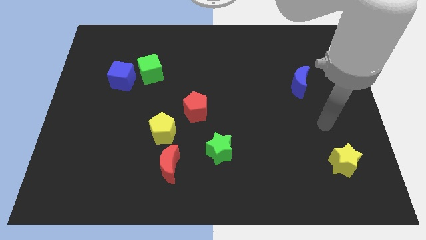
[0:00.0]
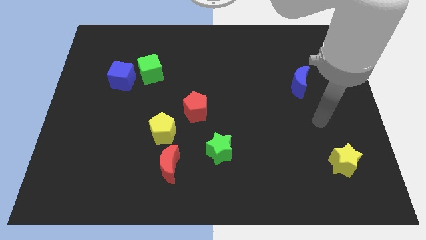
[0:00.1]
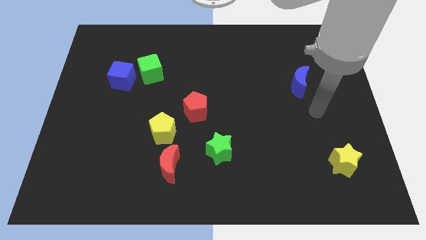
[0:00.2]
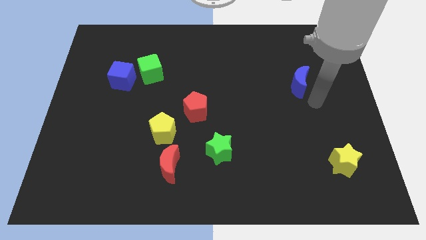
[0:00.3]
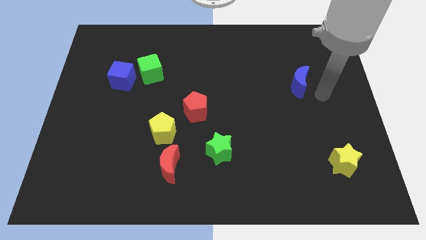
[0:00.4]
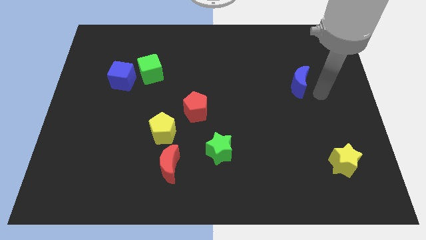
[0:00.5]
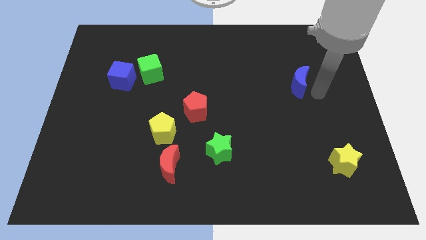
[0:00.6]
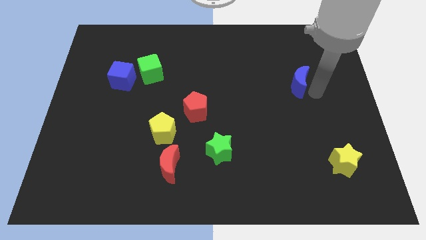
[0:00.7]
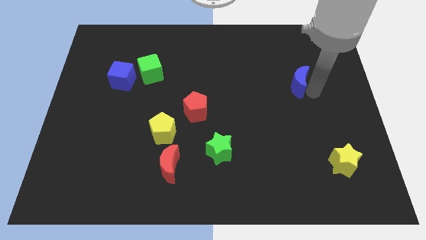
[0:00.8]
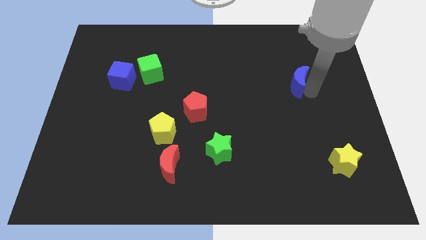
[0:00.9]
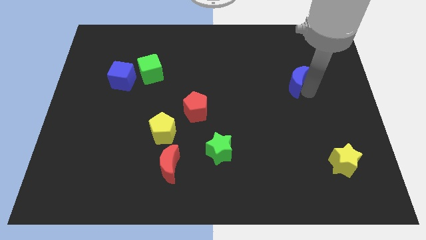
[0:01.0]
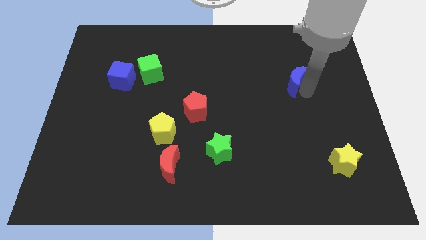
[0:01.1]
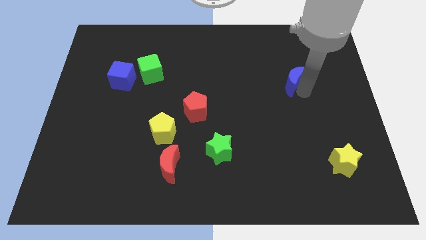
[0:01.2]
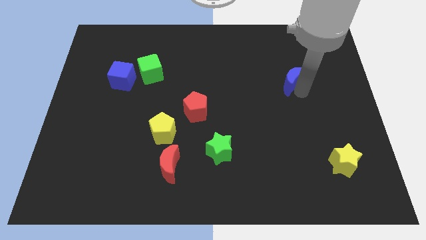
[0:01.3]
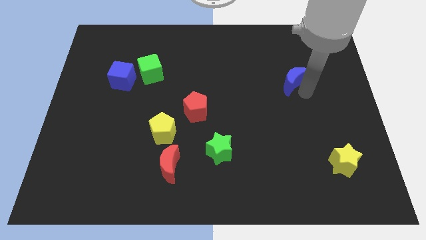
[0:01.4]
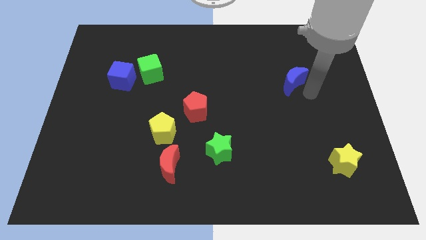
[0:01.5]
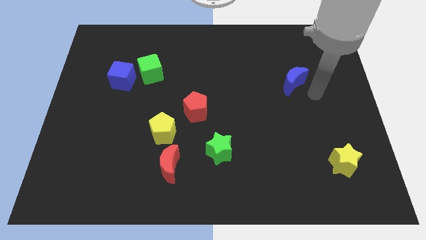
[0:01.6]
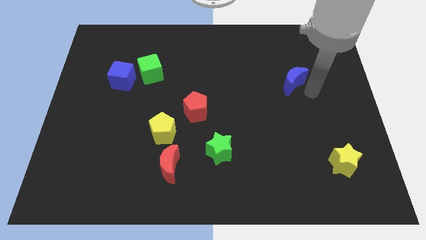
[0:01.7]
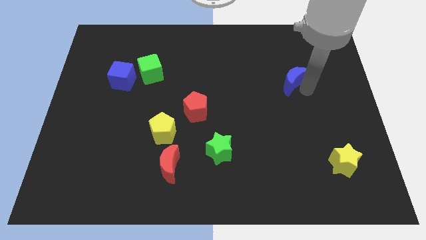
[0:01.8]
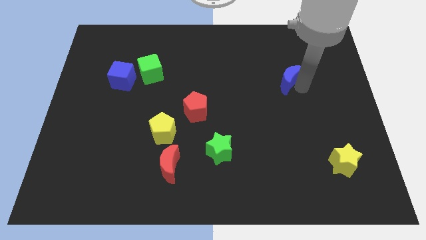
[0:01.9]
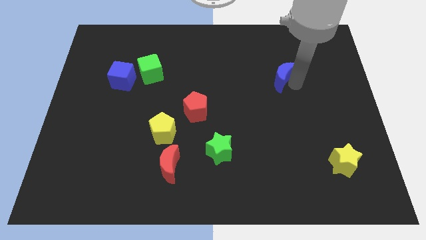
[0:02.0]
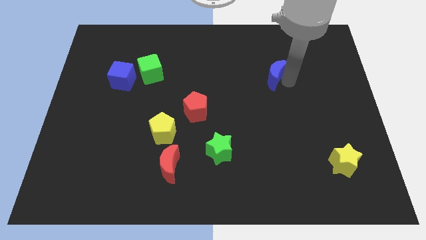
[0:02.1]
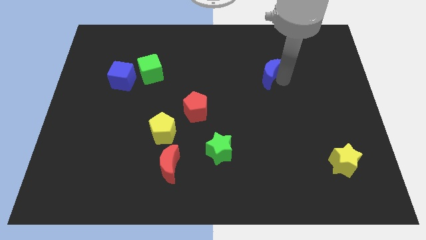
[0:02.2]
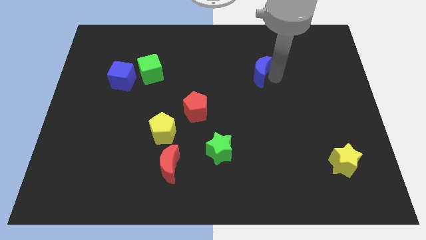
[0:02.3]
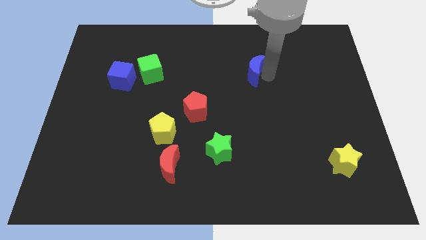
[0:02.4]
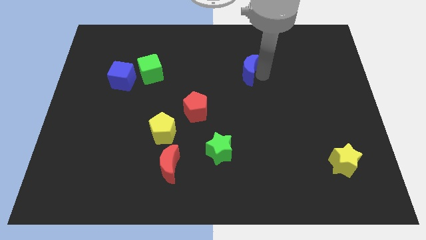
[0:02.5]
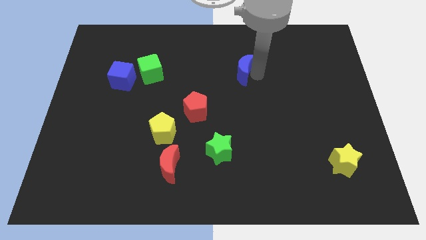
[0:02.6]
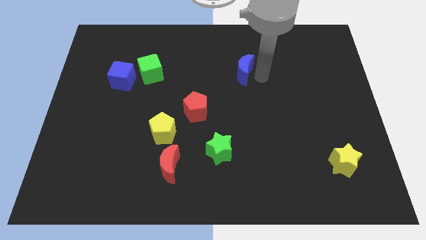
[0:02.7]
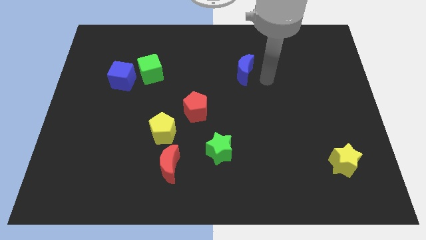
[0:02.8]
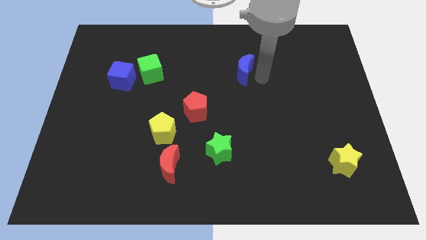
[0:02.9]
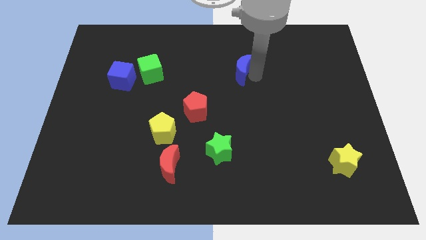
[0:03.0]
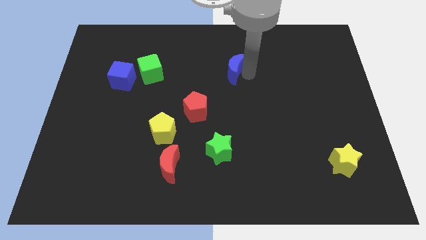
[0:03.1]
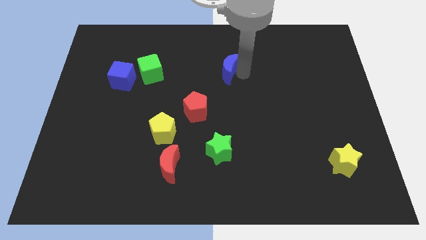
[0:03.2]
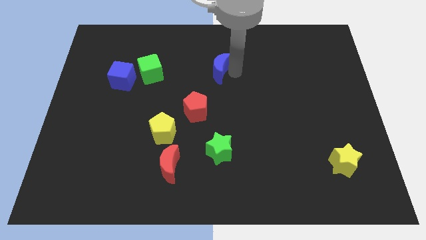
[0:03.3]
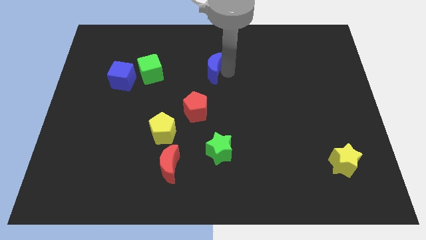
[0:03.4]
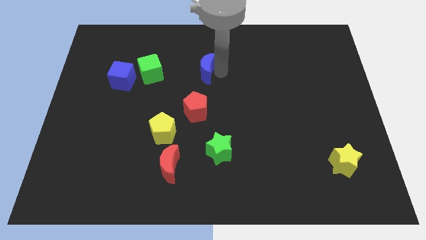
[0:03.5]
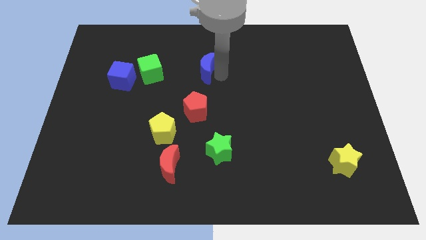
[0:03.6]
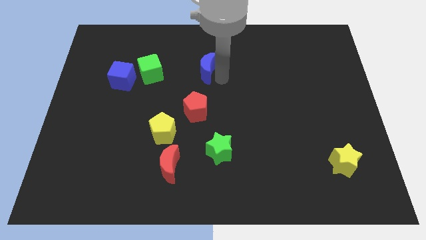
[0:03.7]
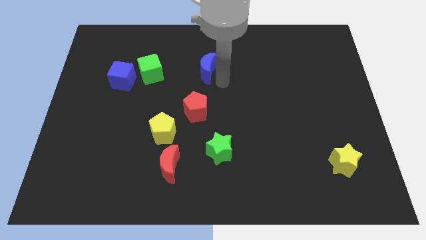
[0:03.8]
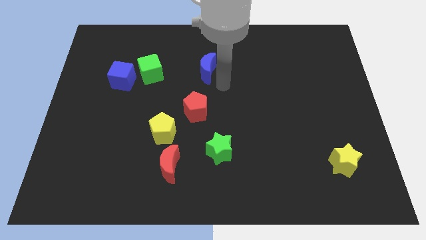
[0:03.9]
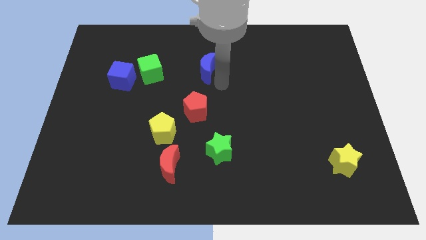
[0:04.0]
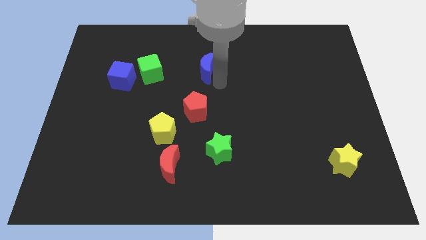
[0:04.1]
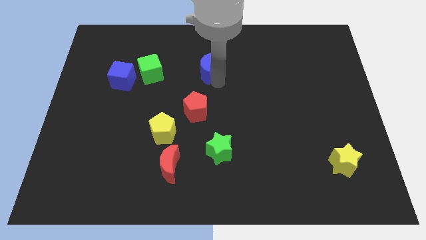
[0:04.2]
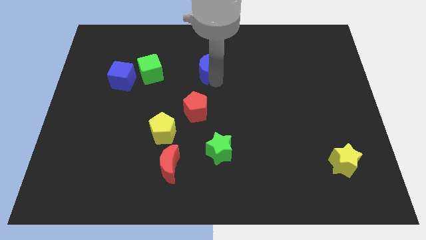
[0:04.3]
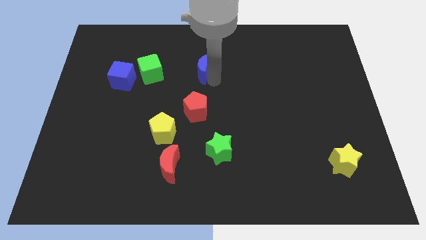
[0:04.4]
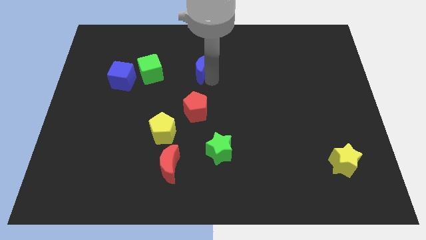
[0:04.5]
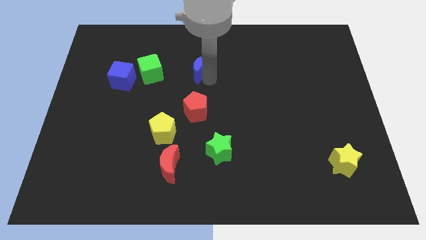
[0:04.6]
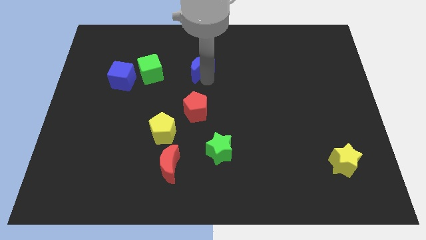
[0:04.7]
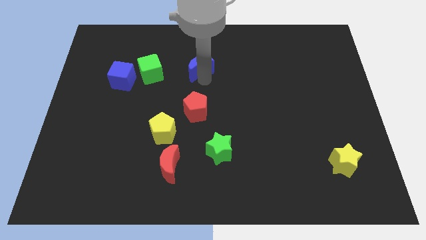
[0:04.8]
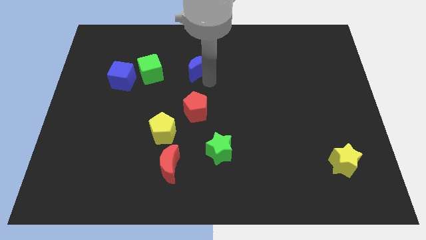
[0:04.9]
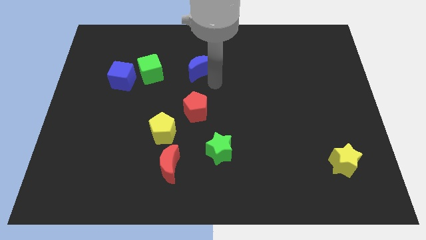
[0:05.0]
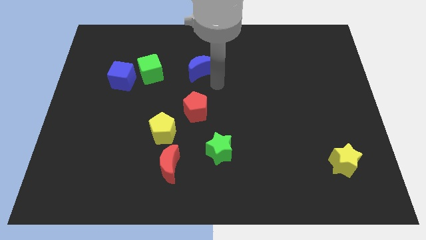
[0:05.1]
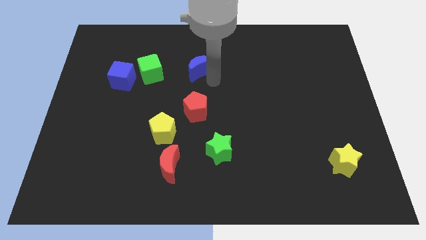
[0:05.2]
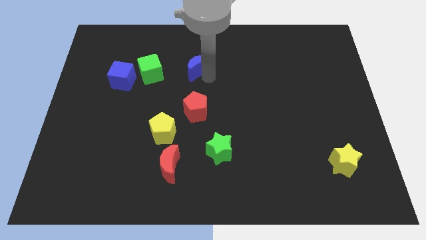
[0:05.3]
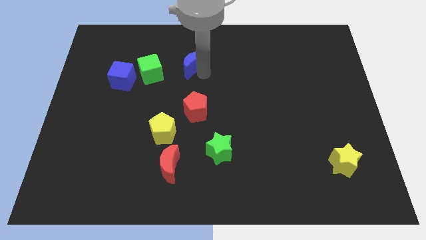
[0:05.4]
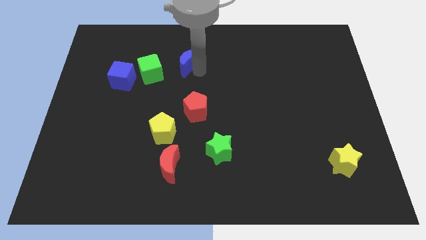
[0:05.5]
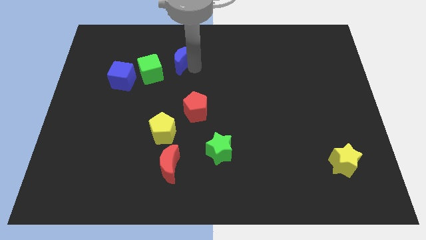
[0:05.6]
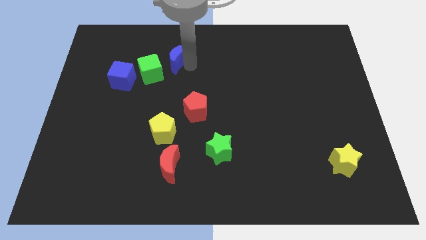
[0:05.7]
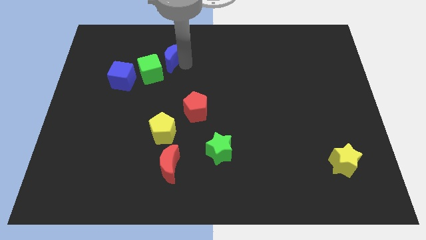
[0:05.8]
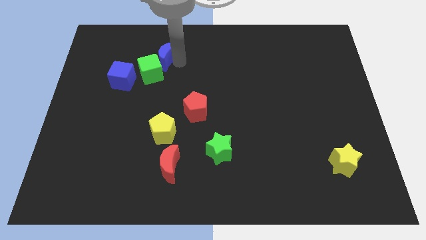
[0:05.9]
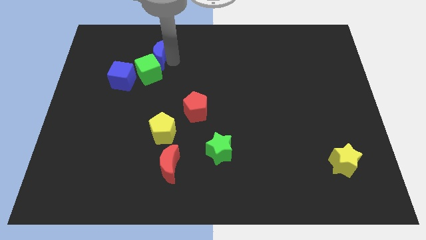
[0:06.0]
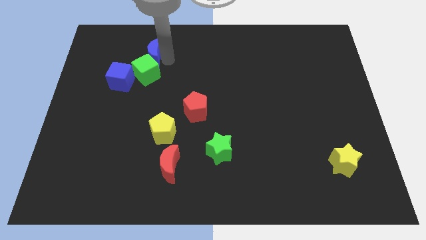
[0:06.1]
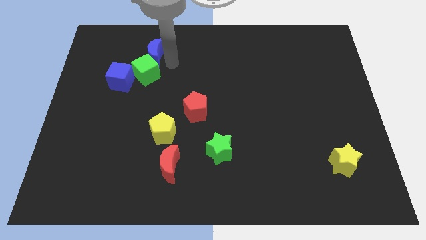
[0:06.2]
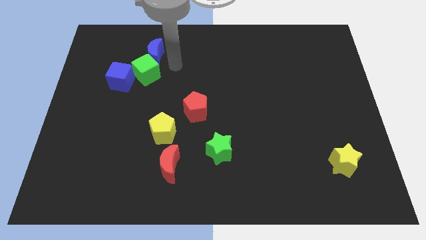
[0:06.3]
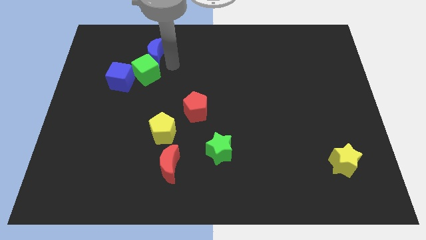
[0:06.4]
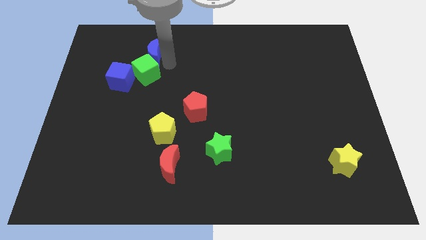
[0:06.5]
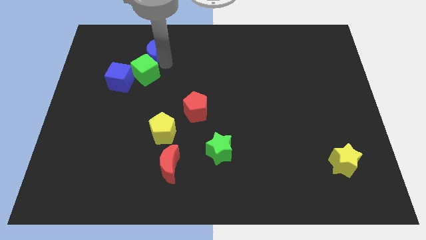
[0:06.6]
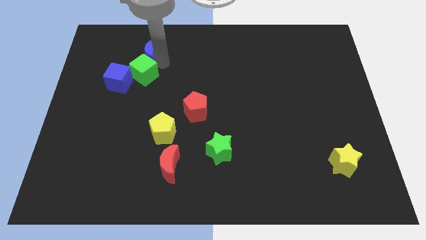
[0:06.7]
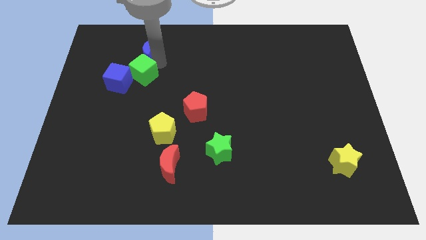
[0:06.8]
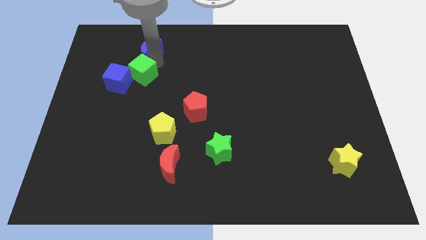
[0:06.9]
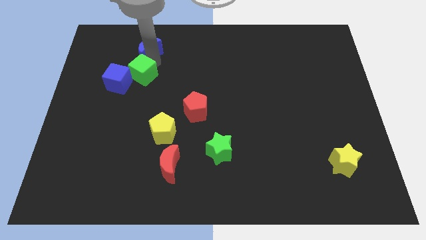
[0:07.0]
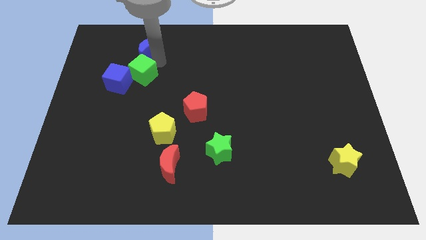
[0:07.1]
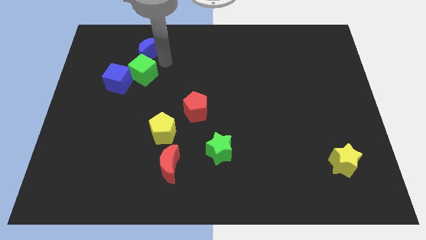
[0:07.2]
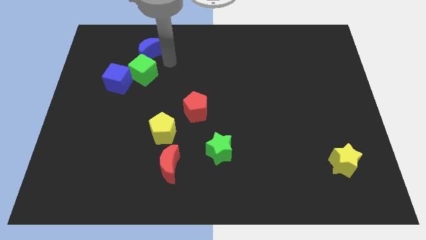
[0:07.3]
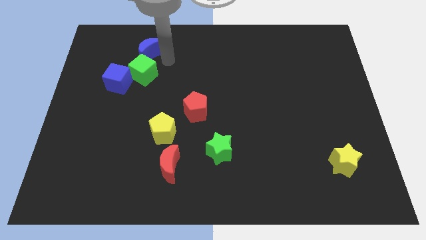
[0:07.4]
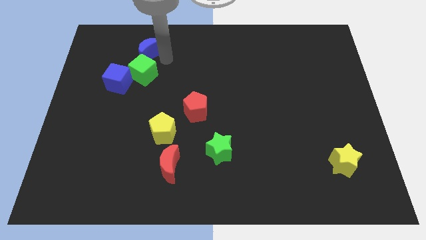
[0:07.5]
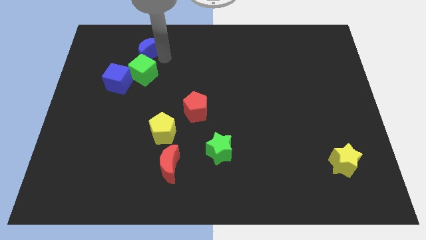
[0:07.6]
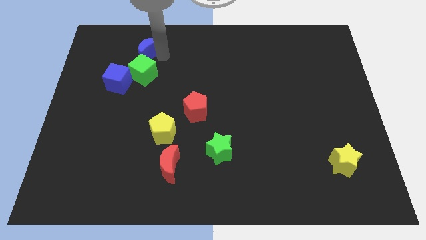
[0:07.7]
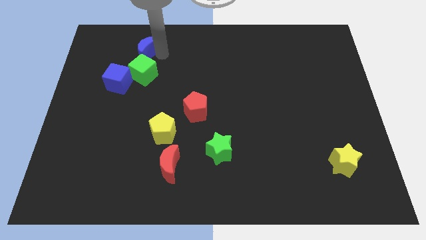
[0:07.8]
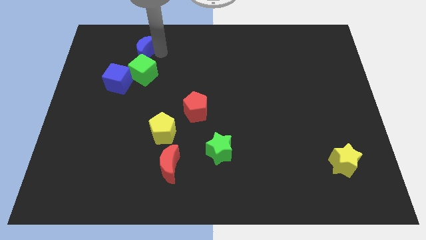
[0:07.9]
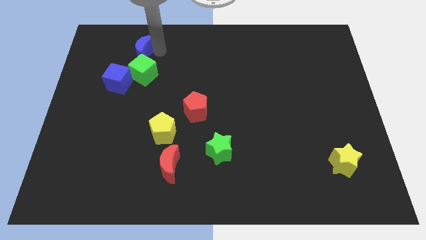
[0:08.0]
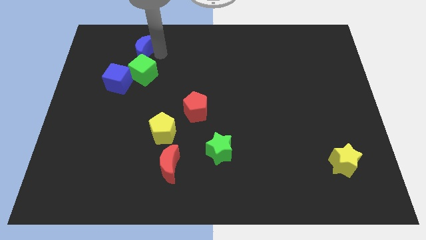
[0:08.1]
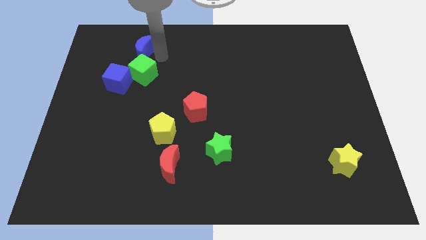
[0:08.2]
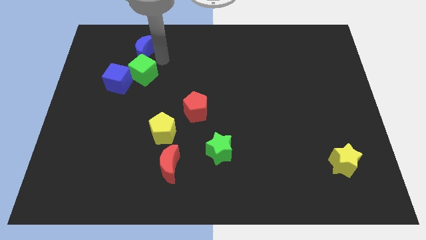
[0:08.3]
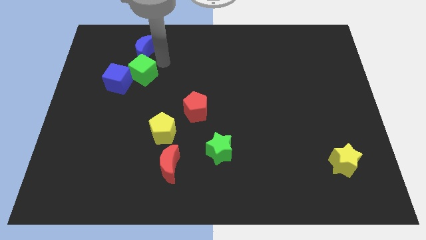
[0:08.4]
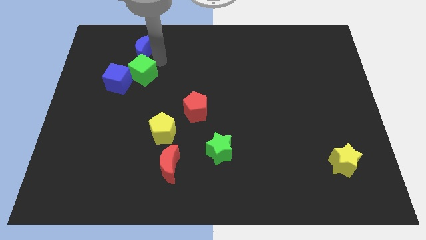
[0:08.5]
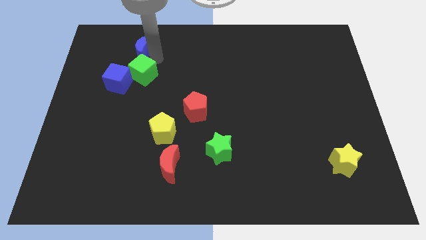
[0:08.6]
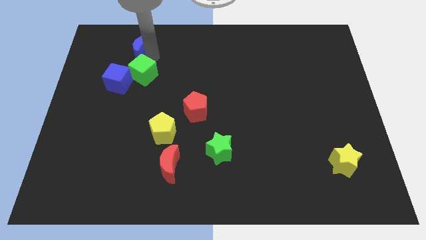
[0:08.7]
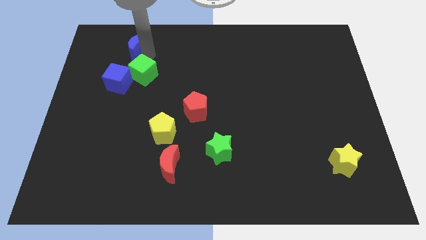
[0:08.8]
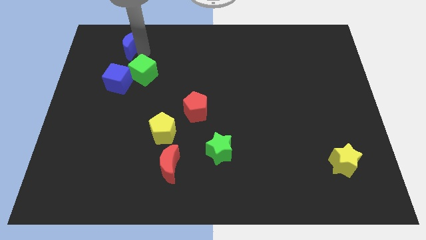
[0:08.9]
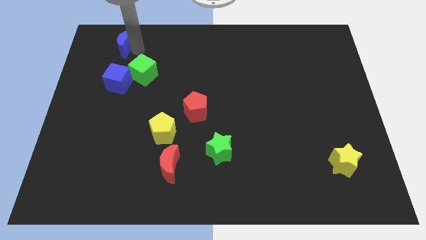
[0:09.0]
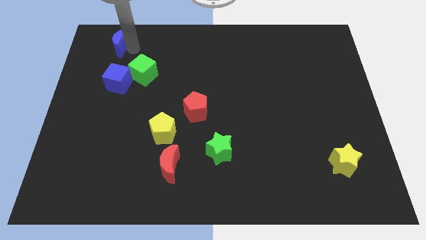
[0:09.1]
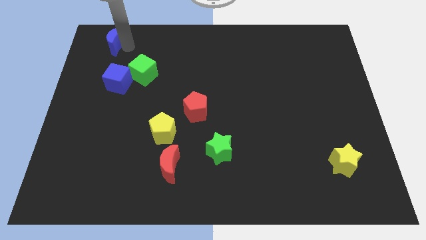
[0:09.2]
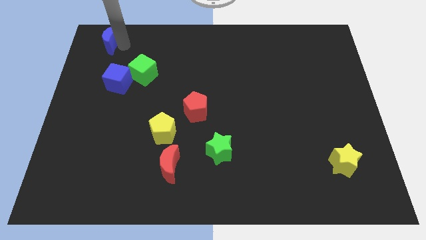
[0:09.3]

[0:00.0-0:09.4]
push the blue moon to the top left corner
